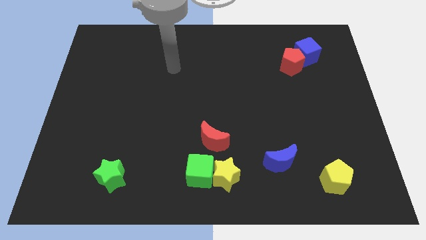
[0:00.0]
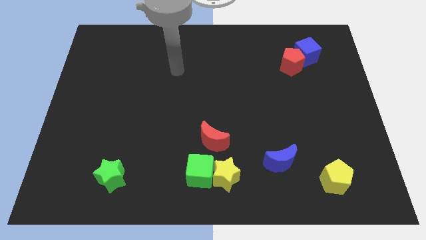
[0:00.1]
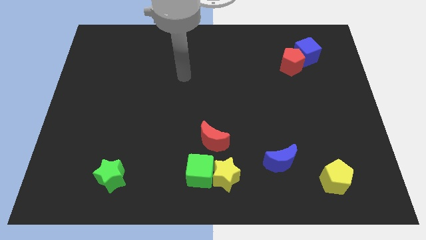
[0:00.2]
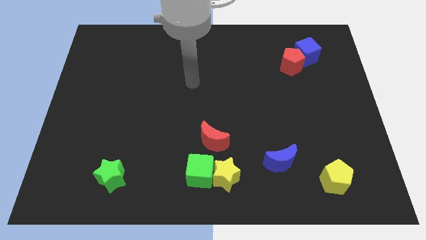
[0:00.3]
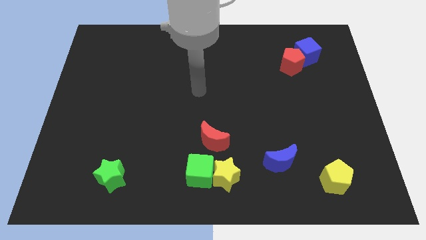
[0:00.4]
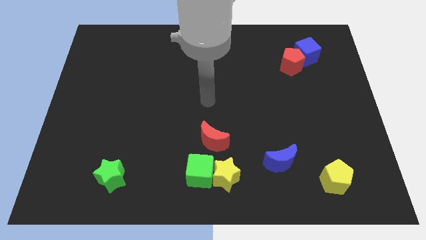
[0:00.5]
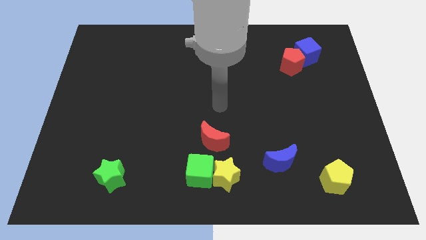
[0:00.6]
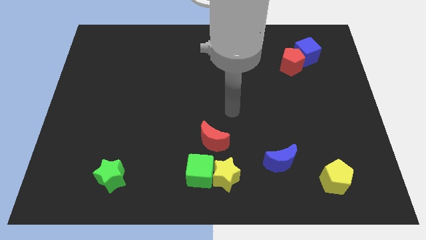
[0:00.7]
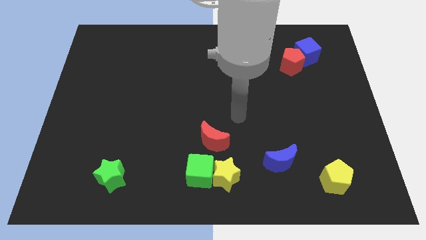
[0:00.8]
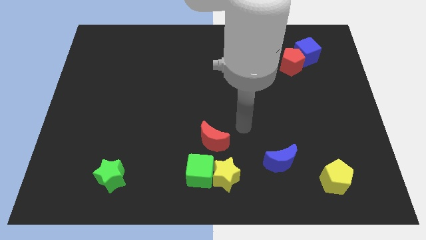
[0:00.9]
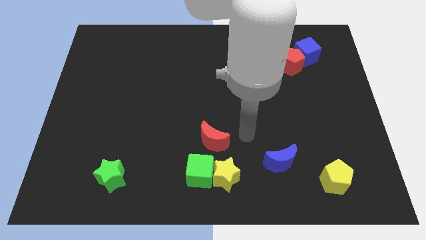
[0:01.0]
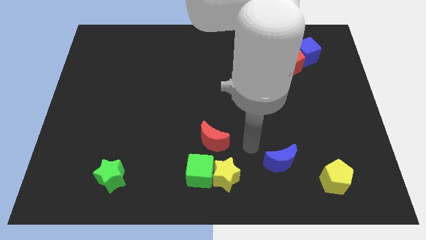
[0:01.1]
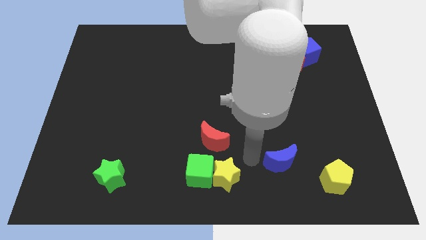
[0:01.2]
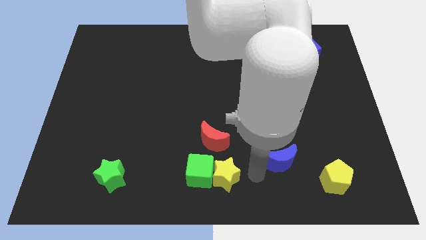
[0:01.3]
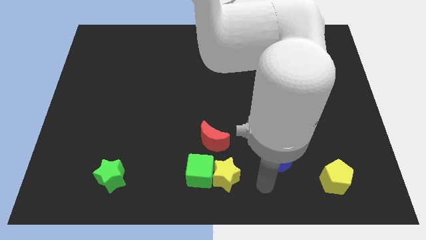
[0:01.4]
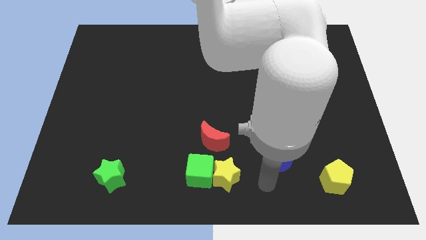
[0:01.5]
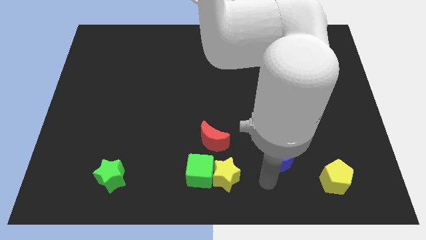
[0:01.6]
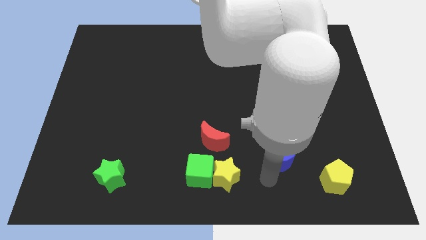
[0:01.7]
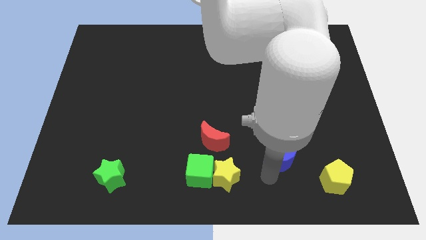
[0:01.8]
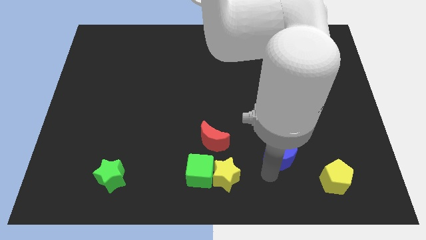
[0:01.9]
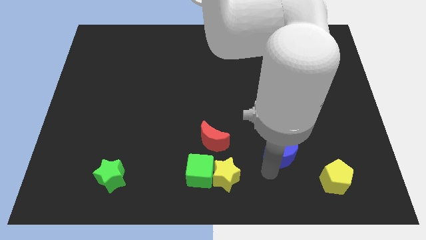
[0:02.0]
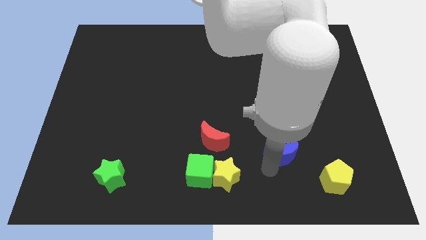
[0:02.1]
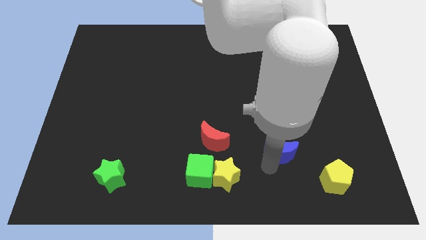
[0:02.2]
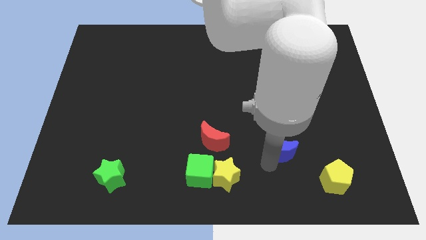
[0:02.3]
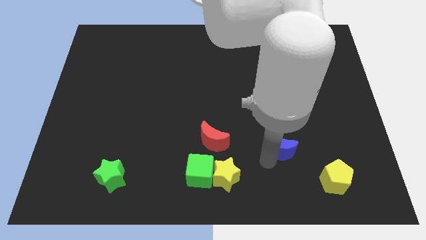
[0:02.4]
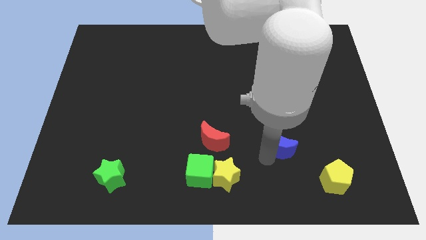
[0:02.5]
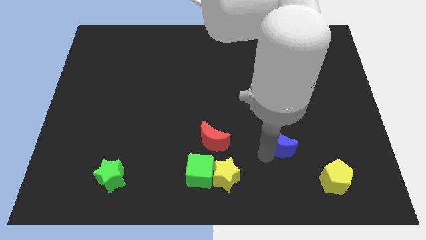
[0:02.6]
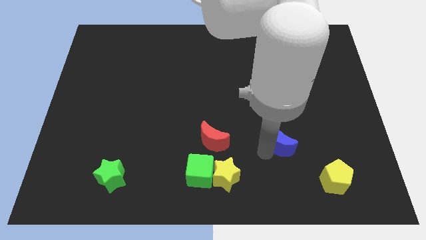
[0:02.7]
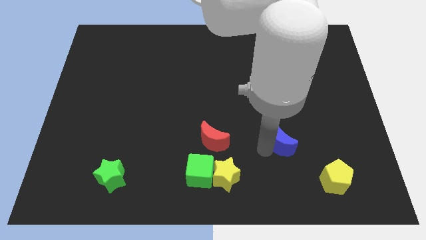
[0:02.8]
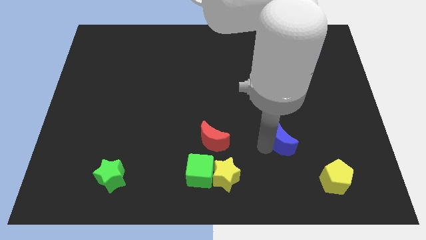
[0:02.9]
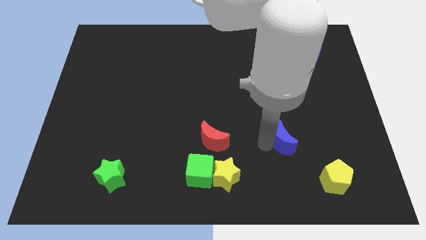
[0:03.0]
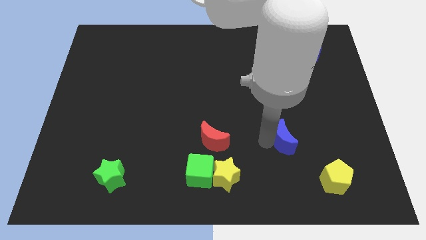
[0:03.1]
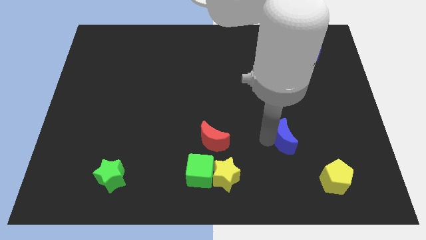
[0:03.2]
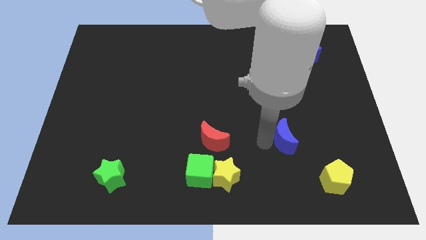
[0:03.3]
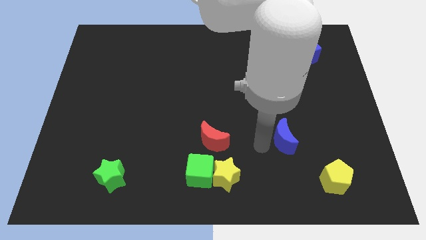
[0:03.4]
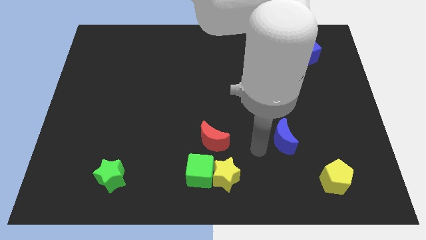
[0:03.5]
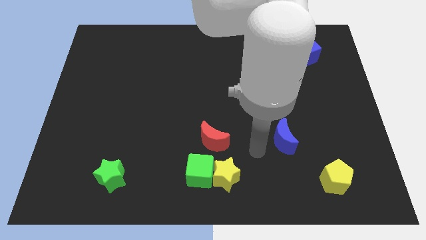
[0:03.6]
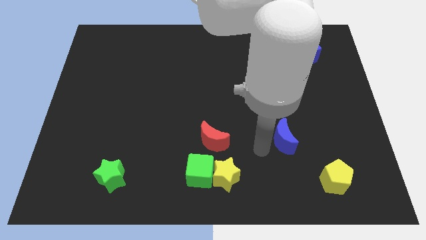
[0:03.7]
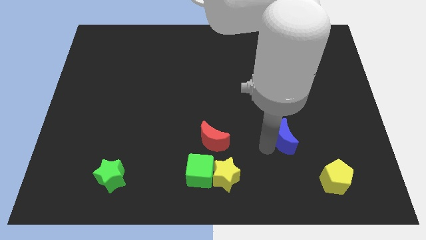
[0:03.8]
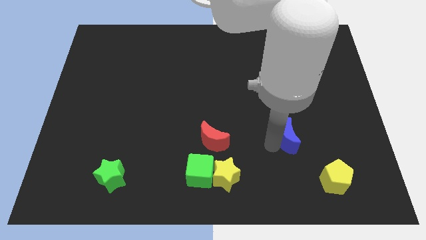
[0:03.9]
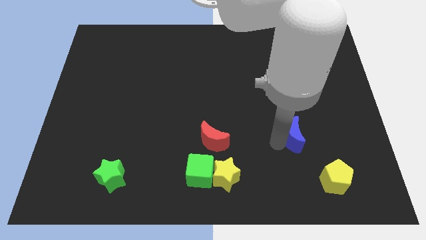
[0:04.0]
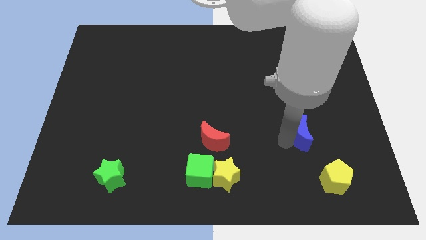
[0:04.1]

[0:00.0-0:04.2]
slightly move the blue moon up and to the right

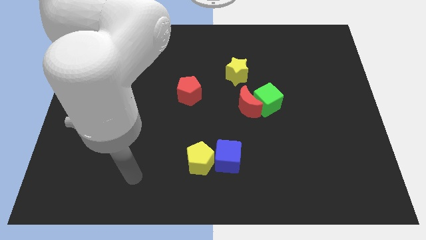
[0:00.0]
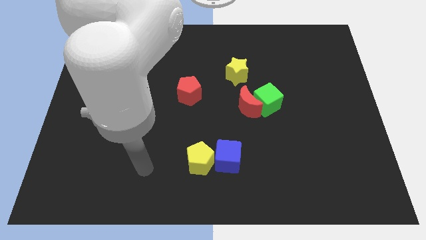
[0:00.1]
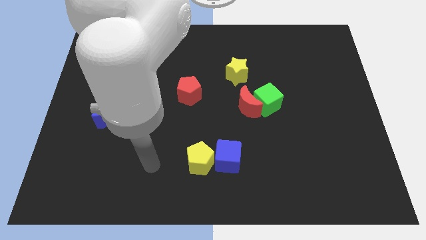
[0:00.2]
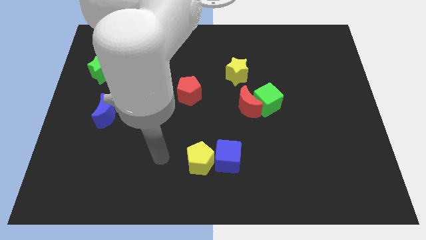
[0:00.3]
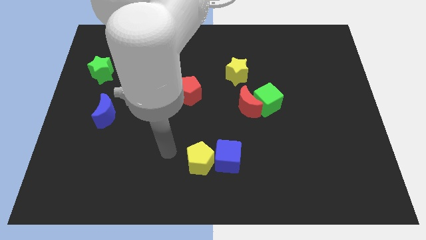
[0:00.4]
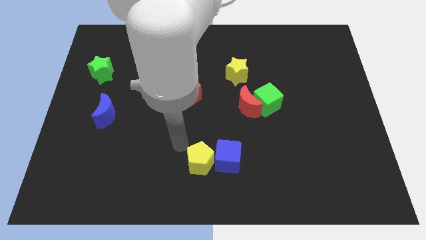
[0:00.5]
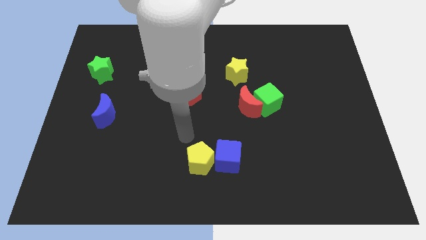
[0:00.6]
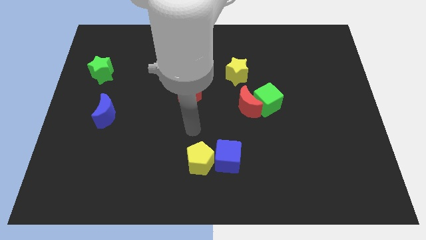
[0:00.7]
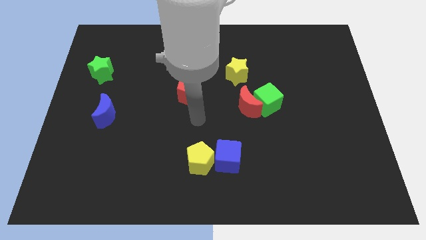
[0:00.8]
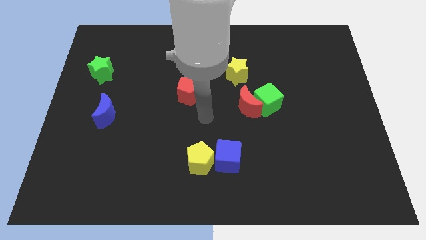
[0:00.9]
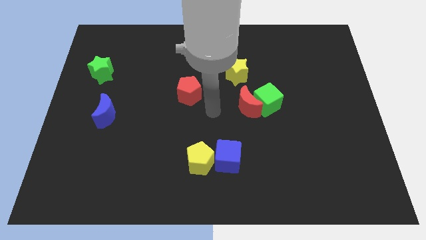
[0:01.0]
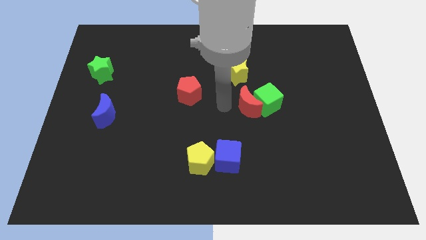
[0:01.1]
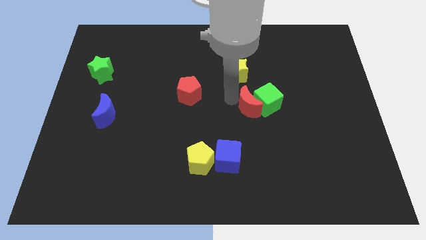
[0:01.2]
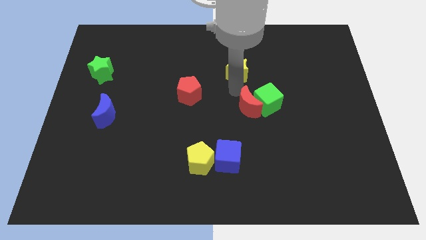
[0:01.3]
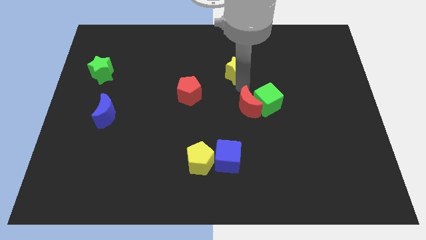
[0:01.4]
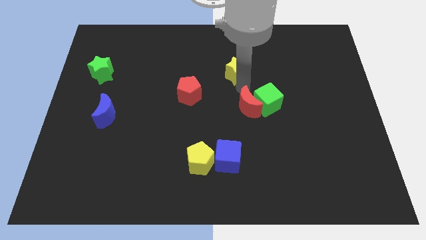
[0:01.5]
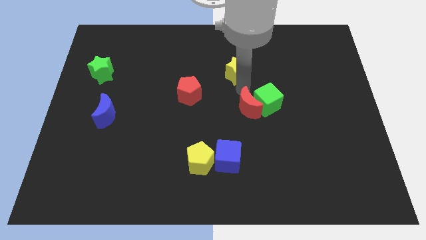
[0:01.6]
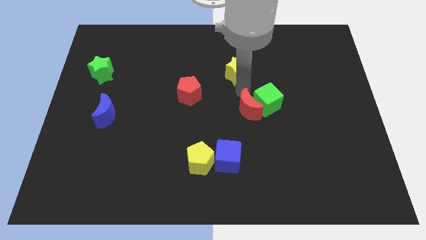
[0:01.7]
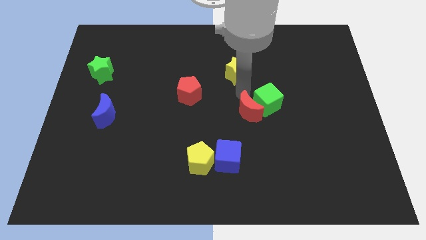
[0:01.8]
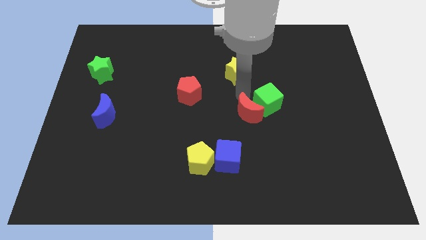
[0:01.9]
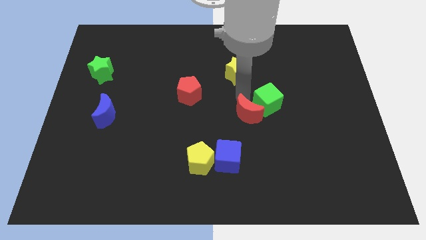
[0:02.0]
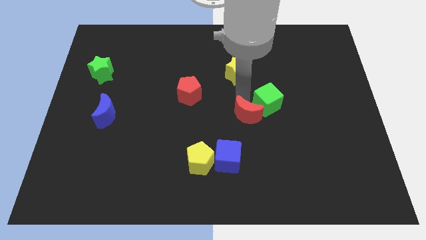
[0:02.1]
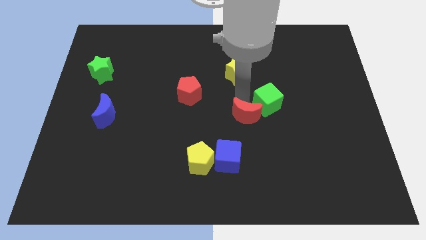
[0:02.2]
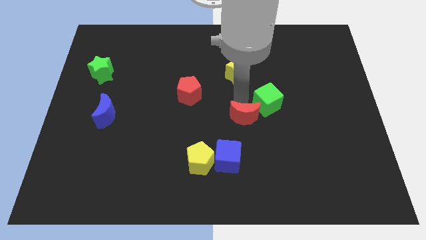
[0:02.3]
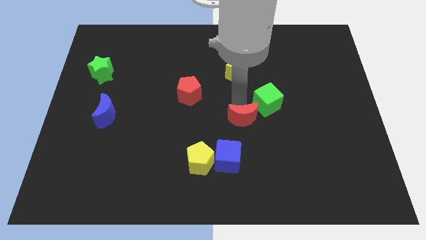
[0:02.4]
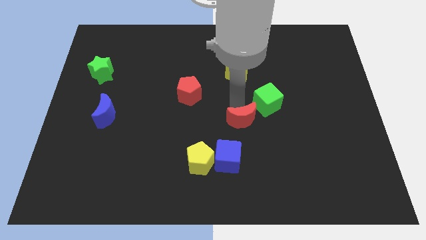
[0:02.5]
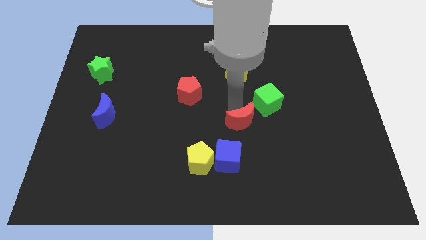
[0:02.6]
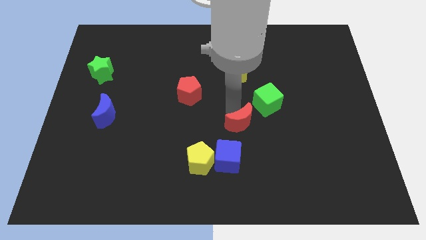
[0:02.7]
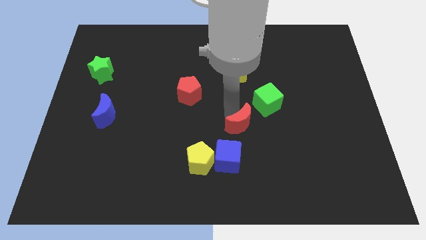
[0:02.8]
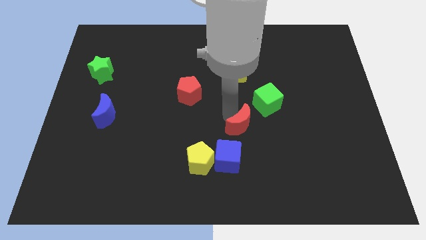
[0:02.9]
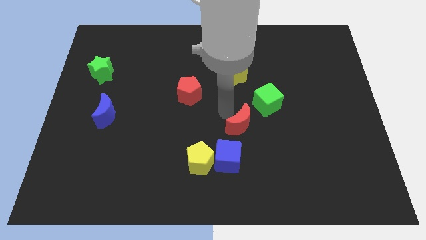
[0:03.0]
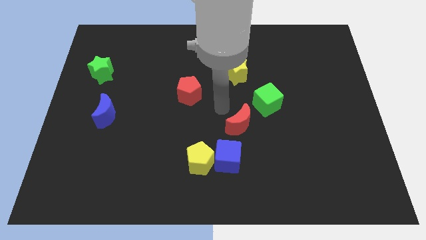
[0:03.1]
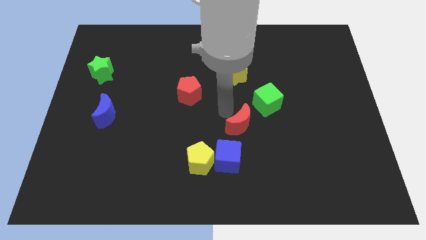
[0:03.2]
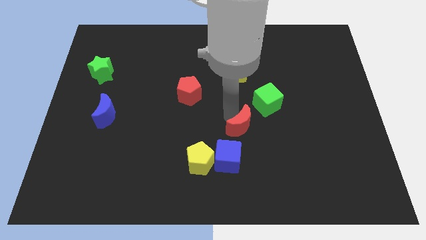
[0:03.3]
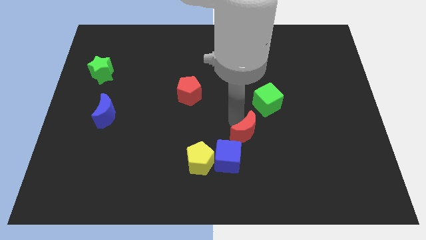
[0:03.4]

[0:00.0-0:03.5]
slightly slide the red moon downwards
